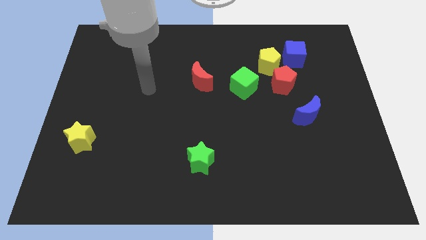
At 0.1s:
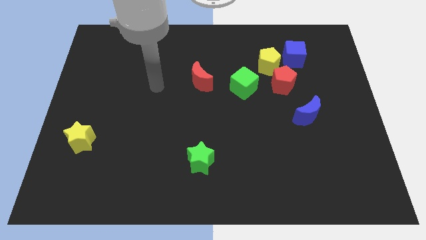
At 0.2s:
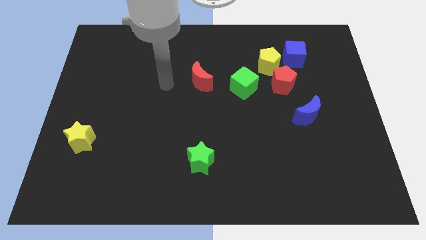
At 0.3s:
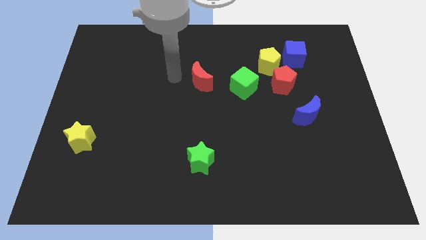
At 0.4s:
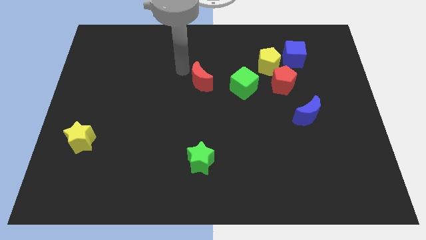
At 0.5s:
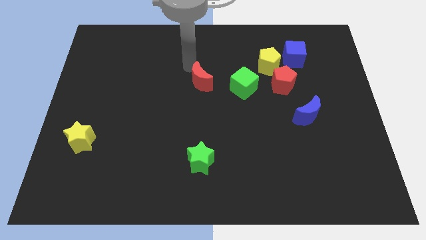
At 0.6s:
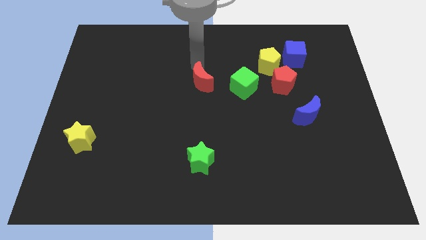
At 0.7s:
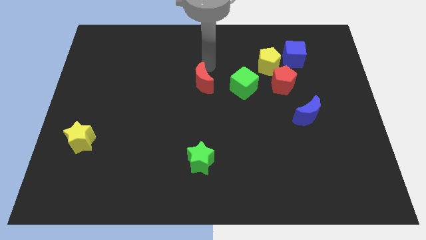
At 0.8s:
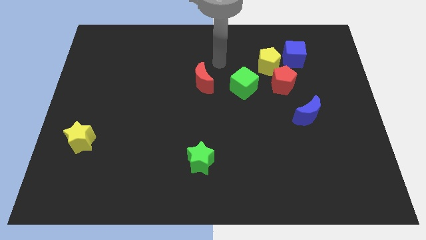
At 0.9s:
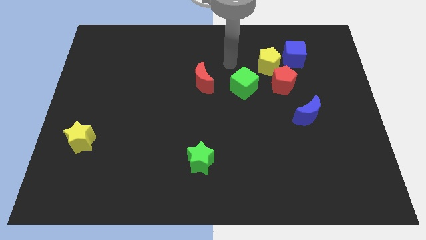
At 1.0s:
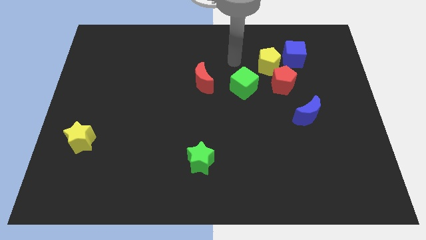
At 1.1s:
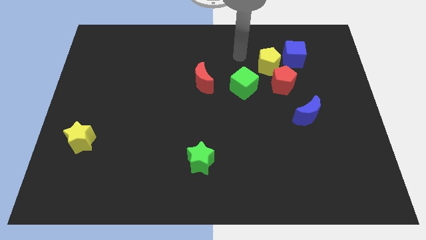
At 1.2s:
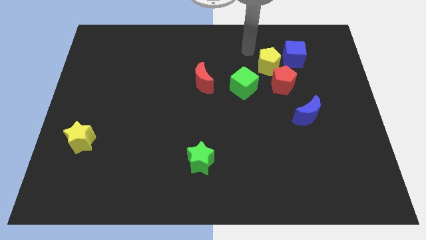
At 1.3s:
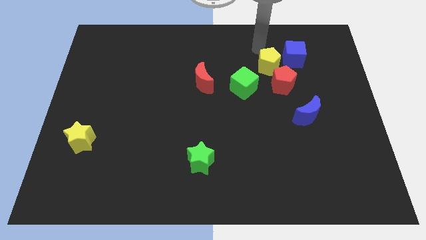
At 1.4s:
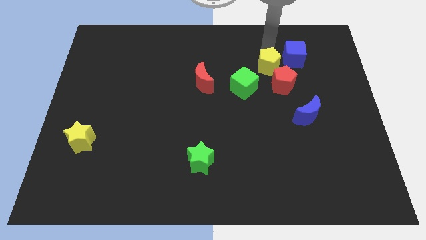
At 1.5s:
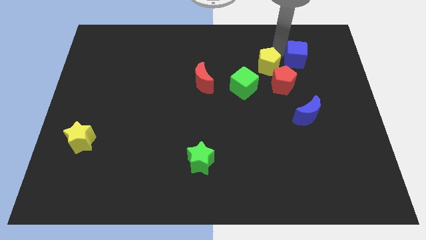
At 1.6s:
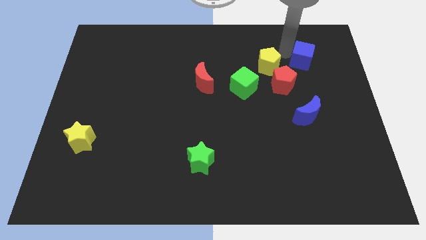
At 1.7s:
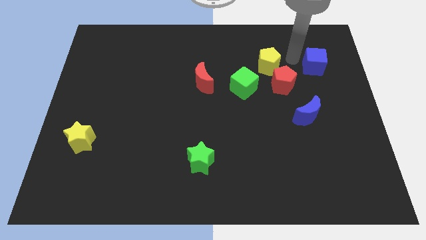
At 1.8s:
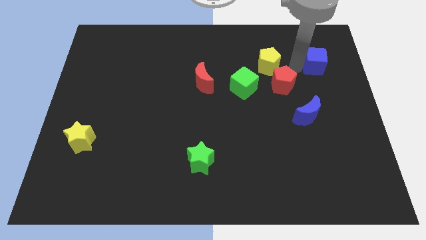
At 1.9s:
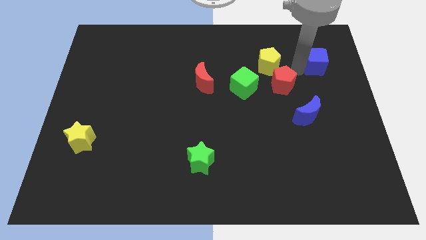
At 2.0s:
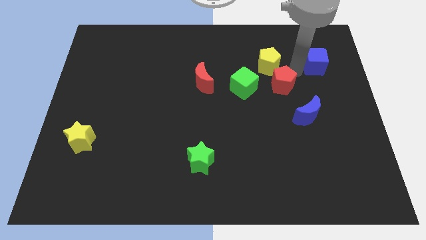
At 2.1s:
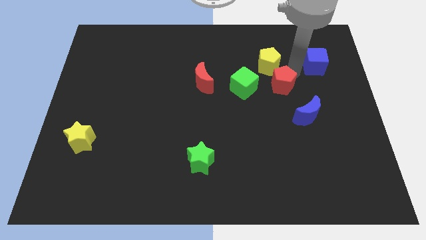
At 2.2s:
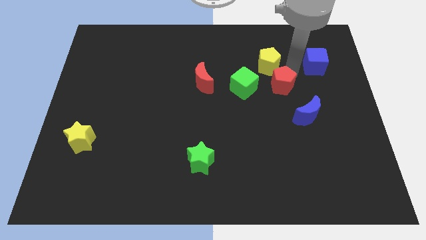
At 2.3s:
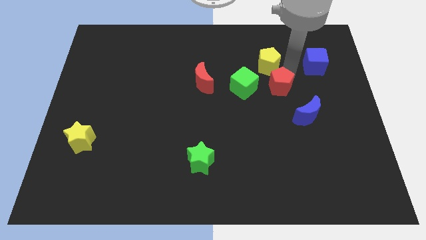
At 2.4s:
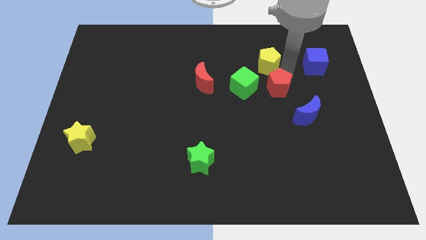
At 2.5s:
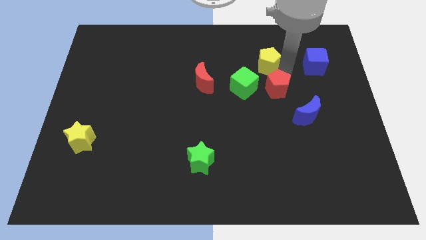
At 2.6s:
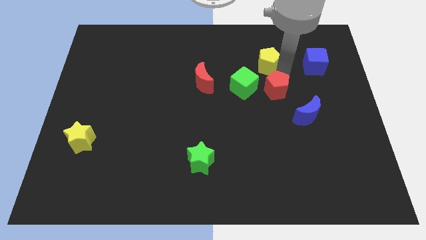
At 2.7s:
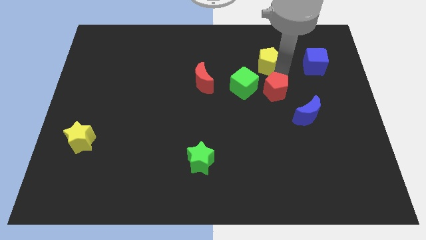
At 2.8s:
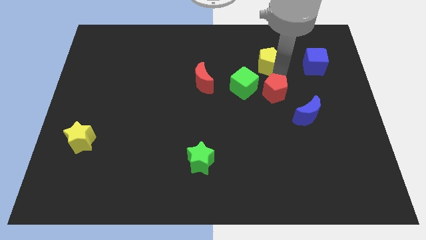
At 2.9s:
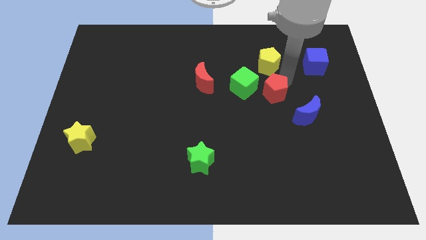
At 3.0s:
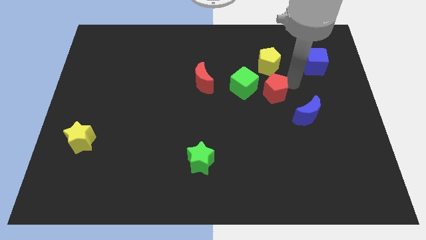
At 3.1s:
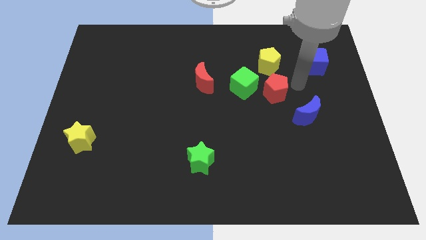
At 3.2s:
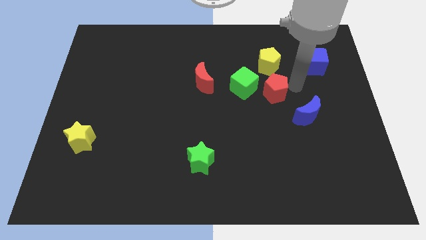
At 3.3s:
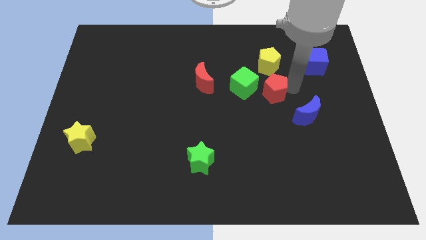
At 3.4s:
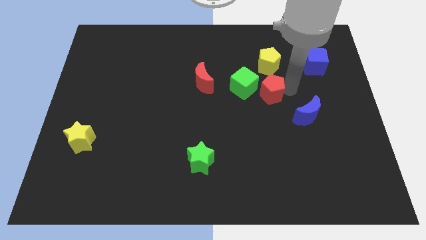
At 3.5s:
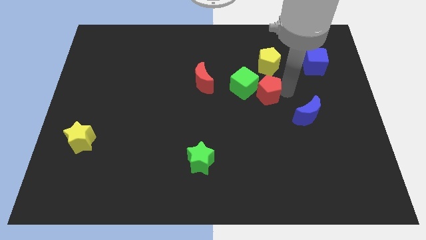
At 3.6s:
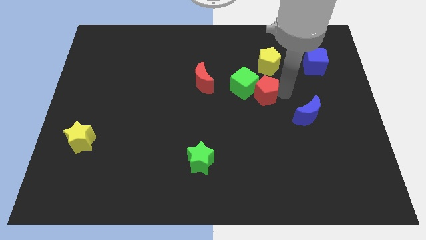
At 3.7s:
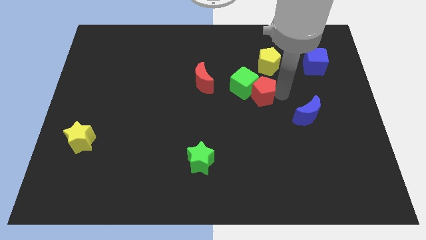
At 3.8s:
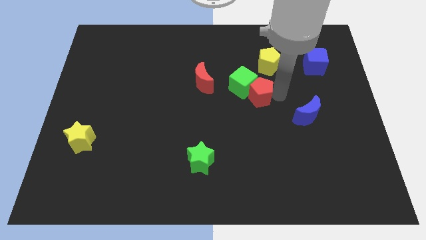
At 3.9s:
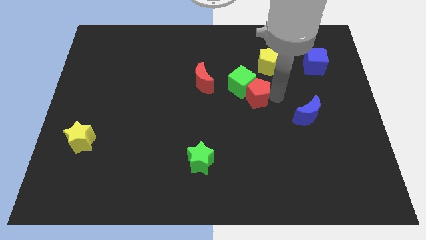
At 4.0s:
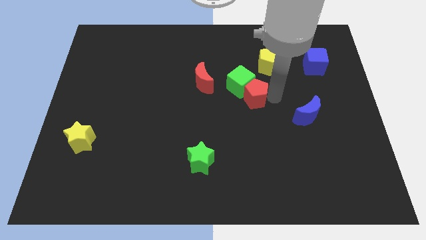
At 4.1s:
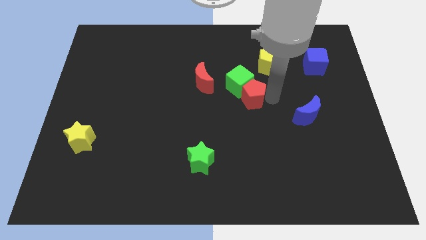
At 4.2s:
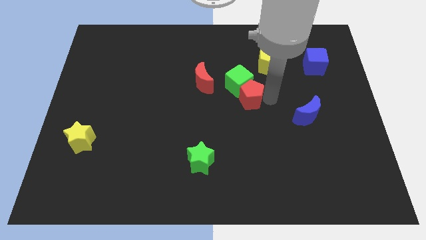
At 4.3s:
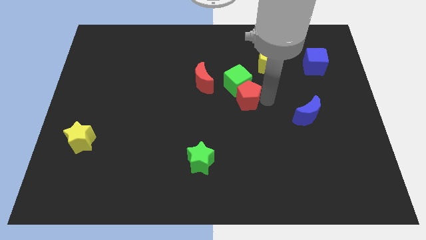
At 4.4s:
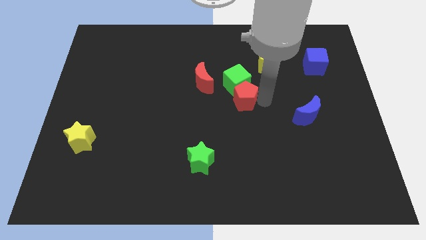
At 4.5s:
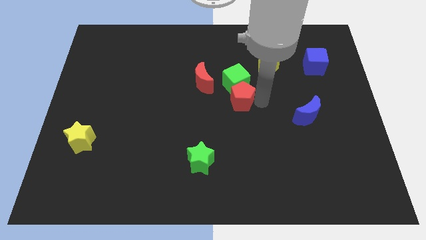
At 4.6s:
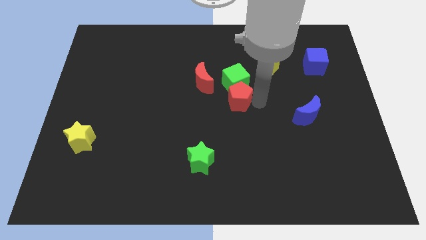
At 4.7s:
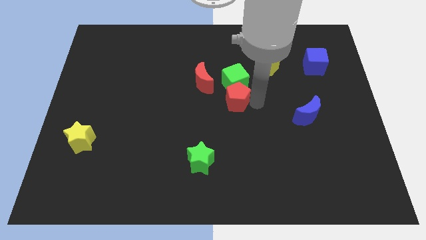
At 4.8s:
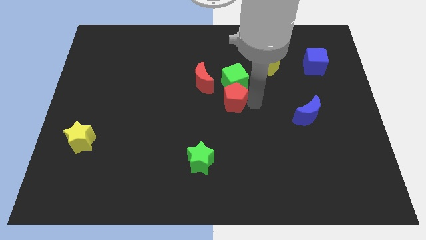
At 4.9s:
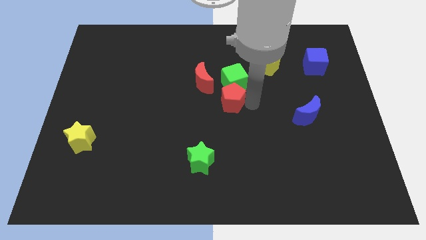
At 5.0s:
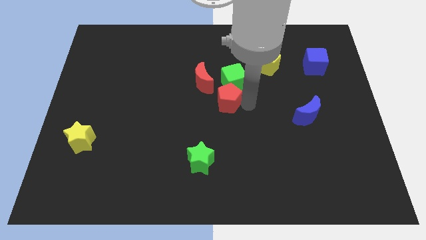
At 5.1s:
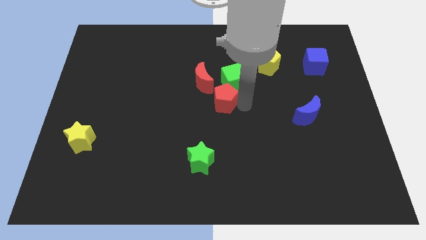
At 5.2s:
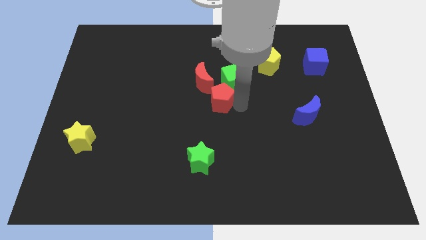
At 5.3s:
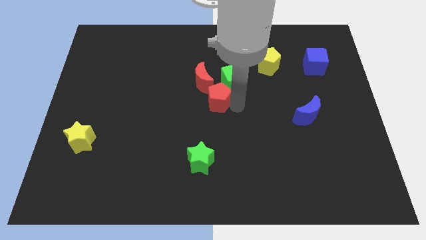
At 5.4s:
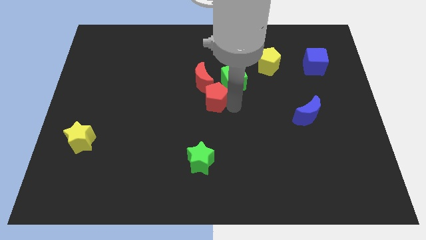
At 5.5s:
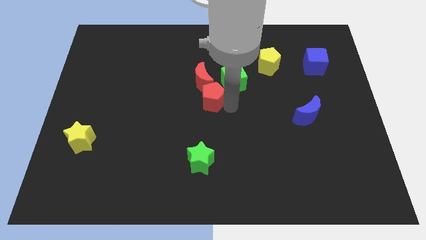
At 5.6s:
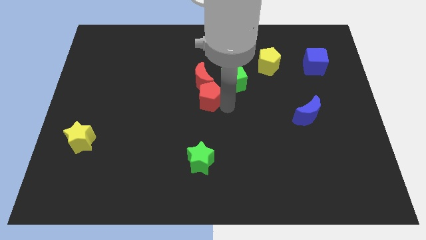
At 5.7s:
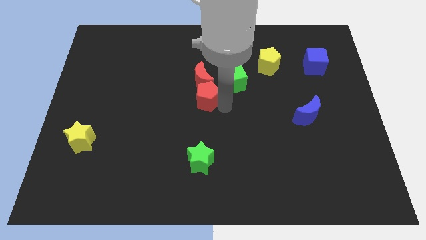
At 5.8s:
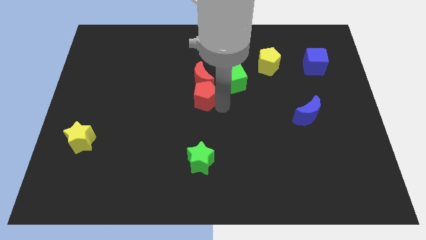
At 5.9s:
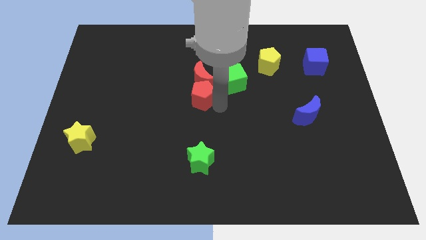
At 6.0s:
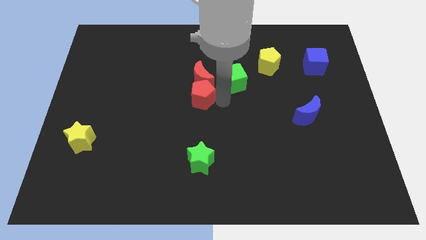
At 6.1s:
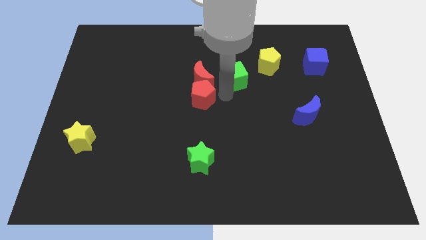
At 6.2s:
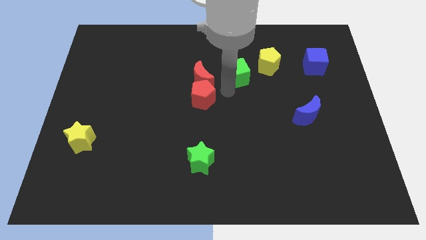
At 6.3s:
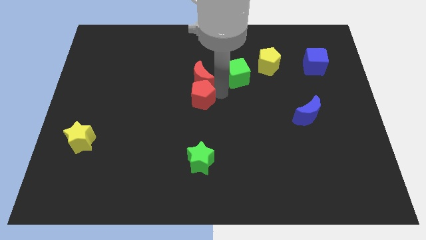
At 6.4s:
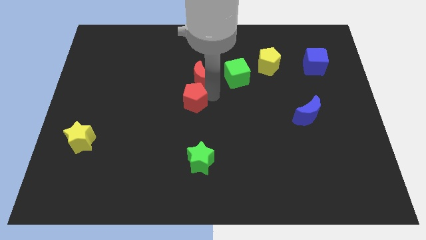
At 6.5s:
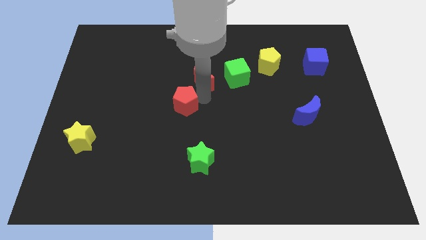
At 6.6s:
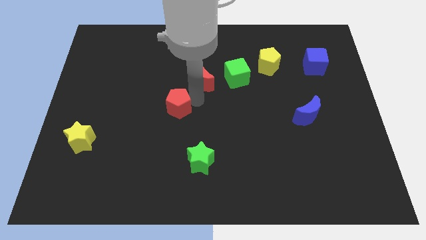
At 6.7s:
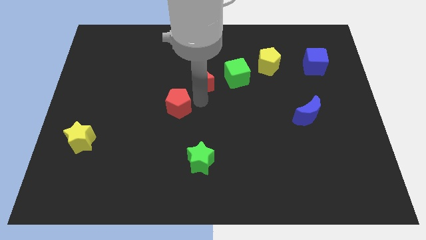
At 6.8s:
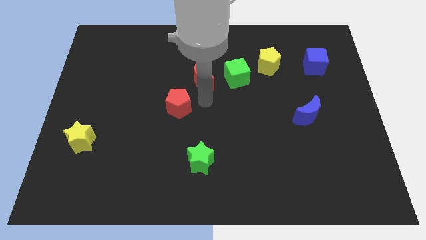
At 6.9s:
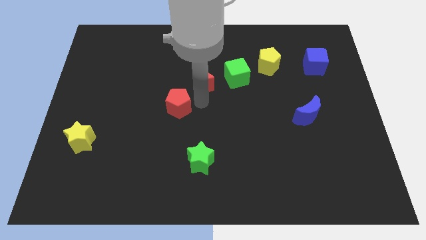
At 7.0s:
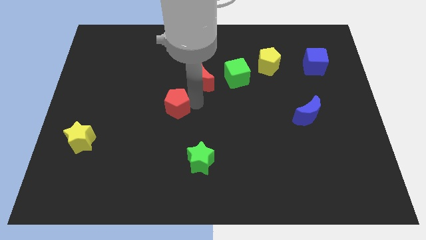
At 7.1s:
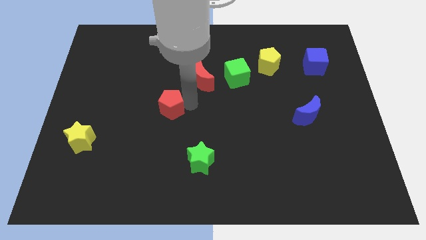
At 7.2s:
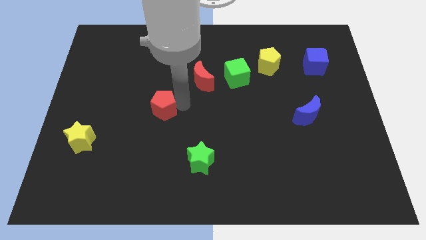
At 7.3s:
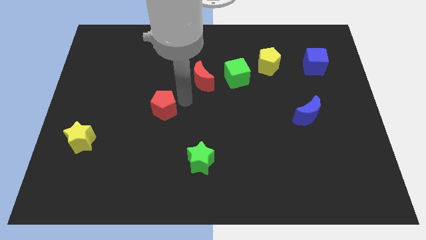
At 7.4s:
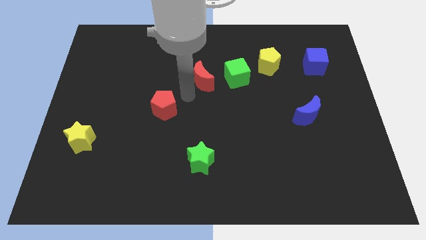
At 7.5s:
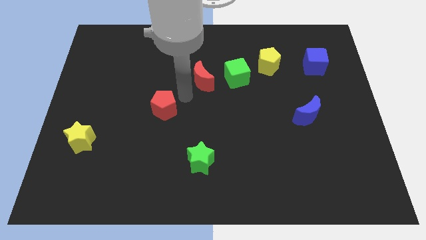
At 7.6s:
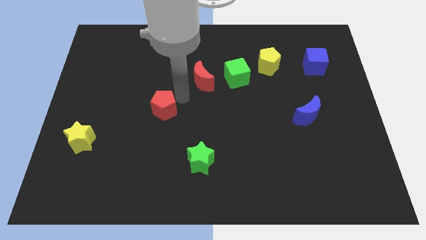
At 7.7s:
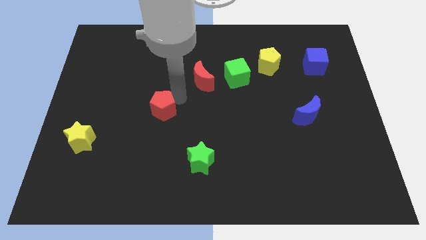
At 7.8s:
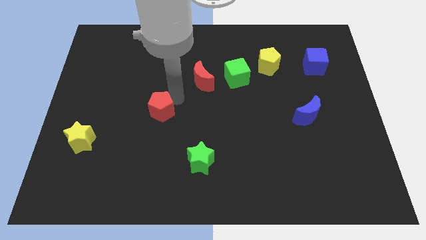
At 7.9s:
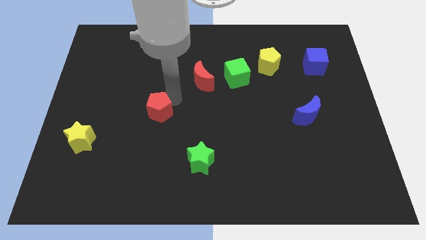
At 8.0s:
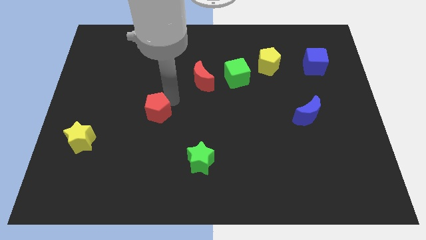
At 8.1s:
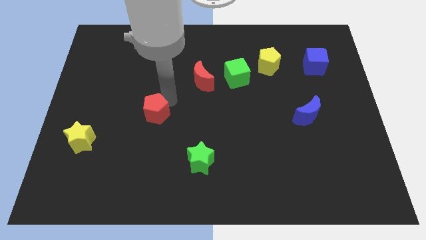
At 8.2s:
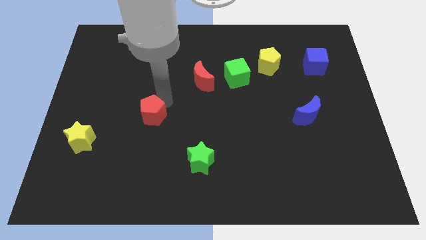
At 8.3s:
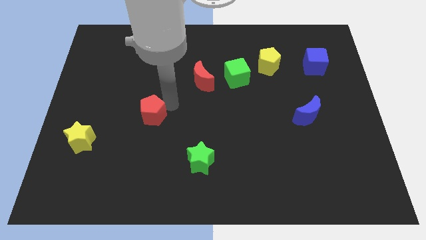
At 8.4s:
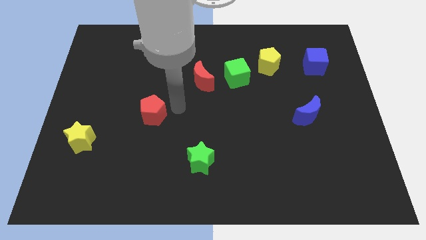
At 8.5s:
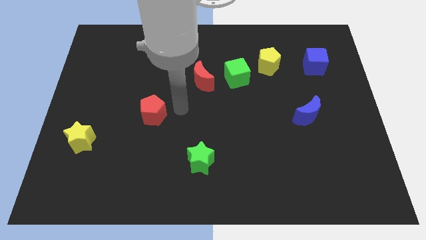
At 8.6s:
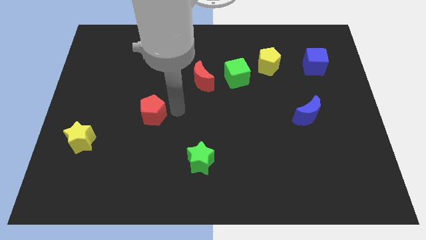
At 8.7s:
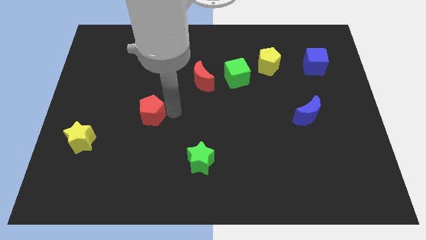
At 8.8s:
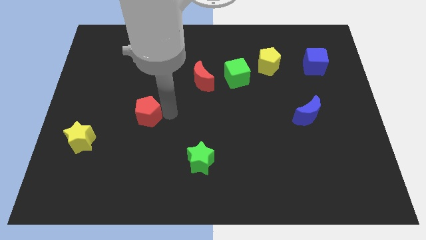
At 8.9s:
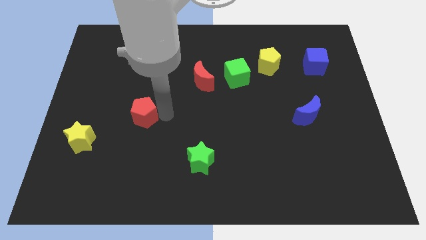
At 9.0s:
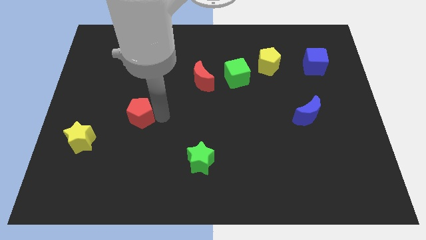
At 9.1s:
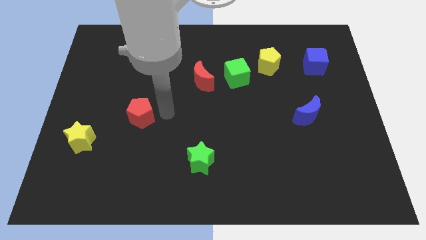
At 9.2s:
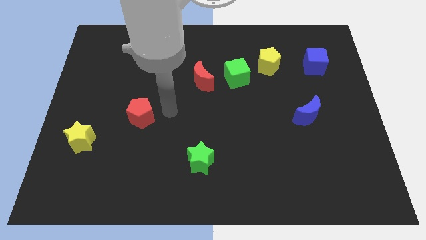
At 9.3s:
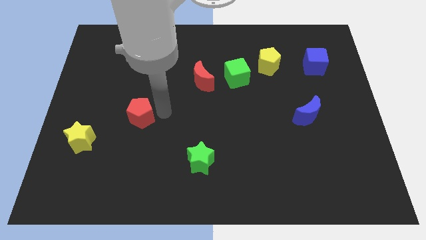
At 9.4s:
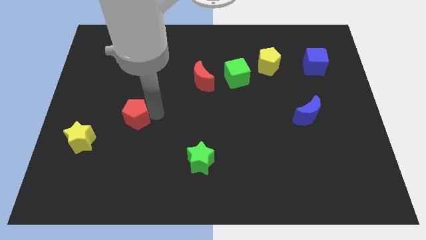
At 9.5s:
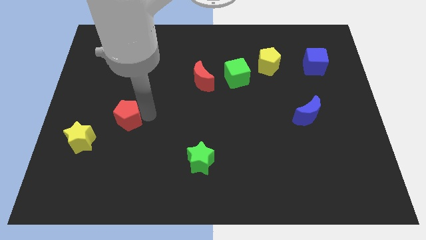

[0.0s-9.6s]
push the red pentagon to the top right of the yellow star
